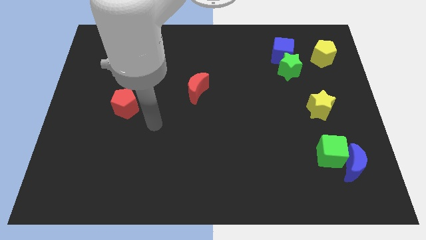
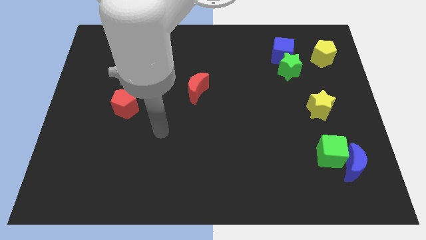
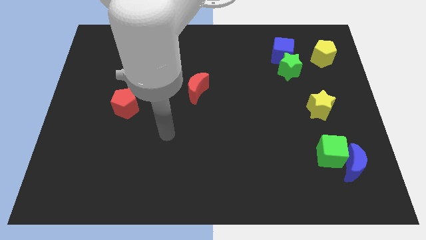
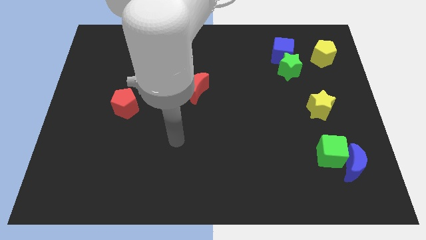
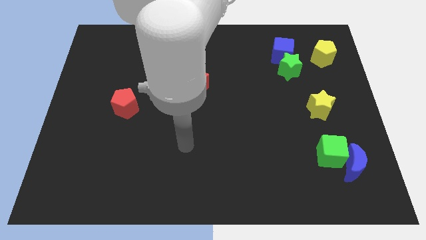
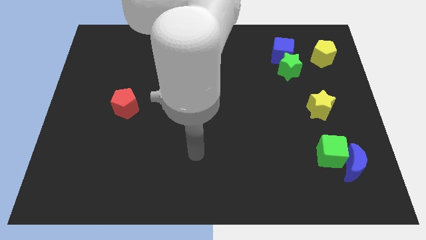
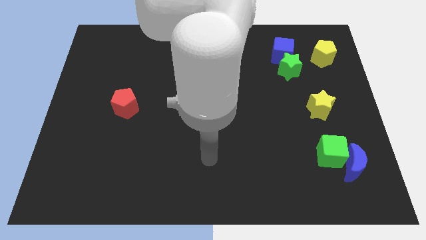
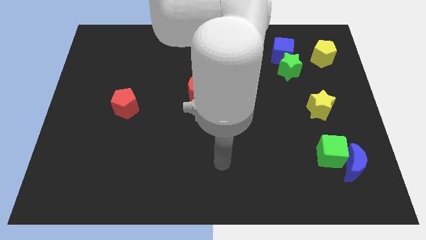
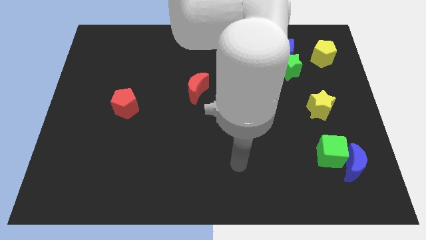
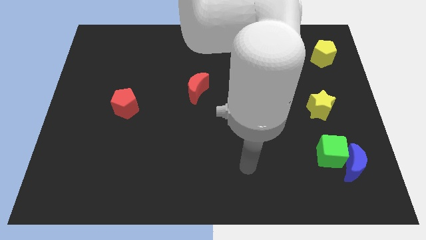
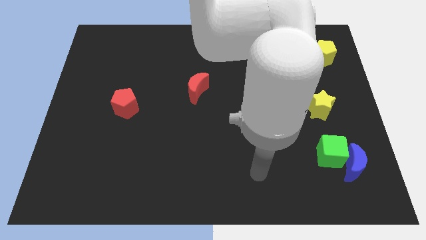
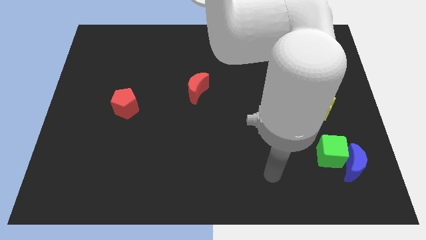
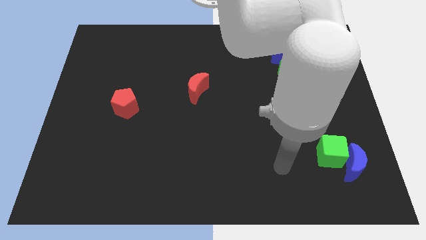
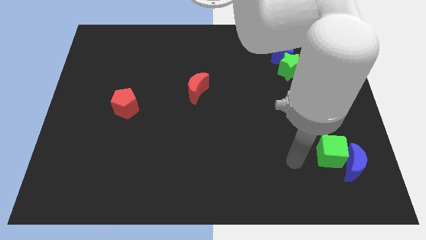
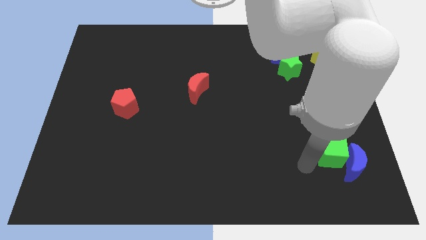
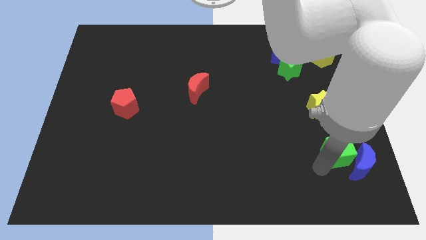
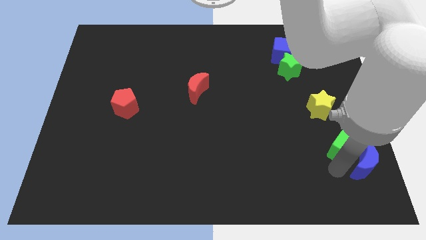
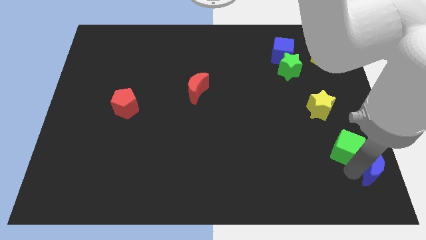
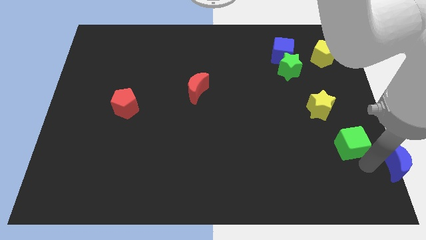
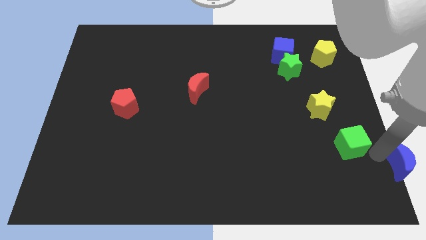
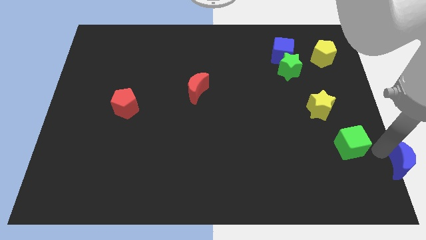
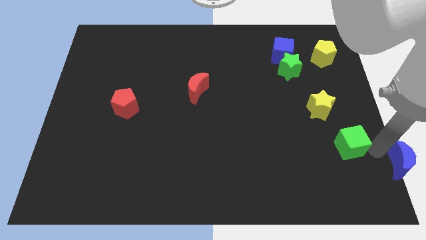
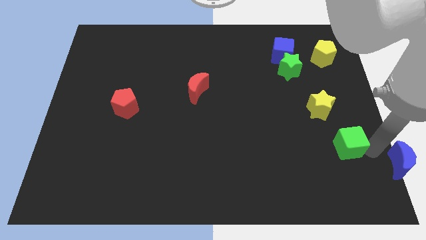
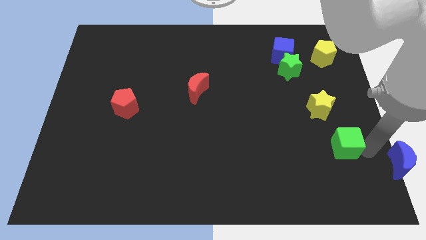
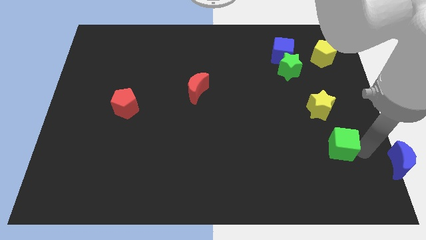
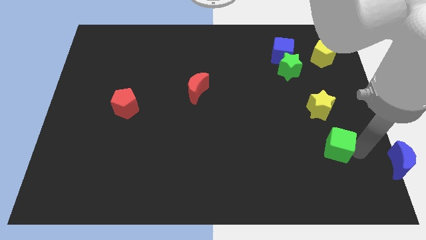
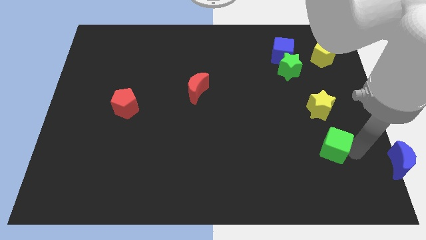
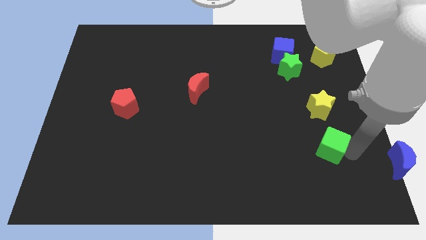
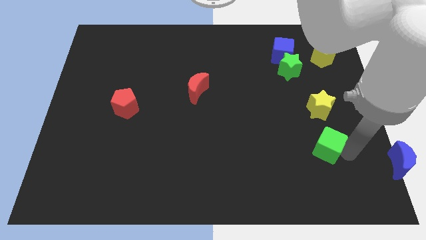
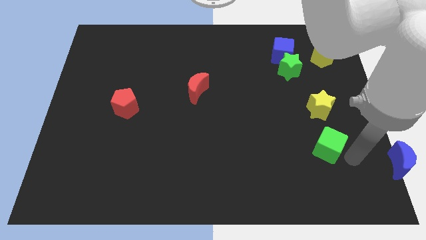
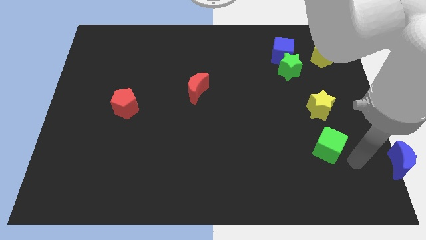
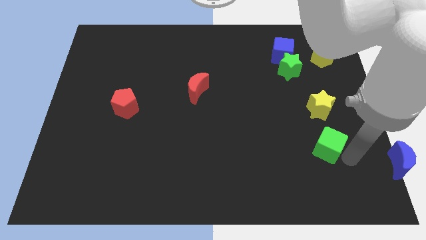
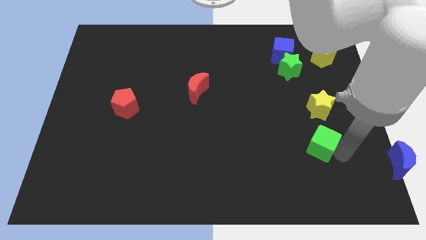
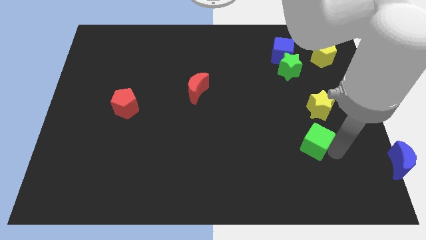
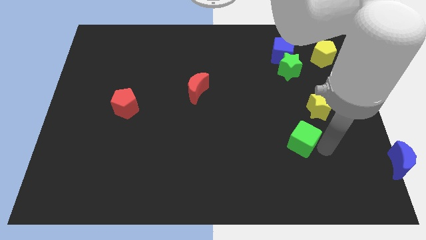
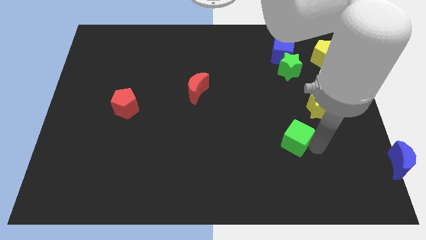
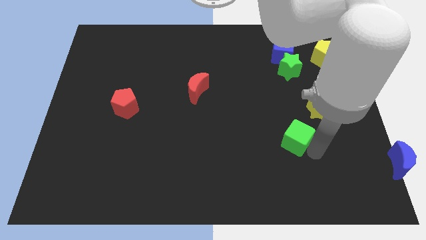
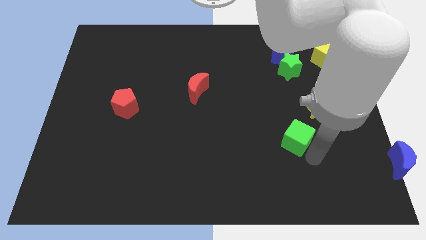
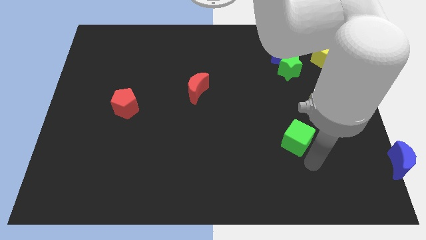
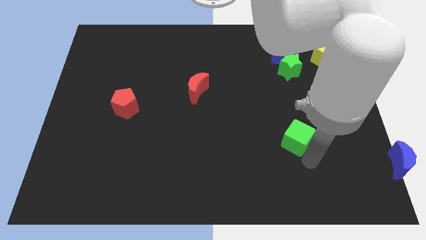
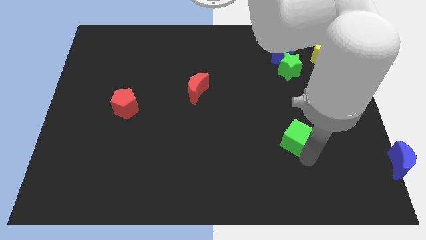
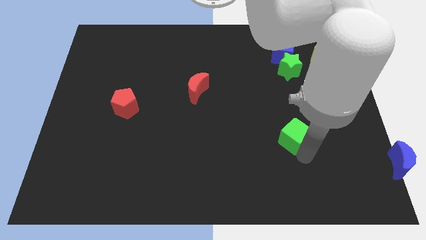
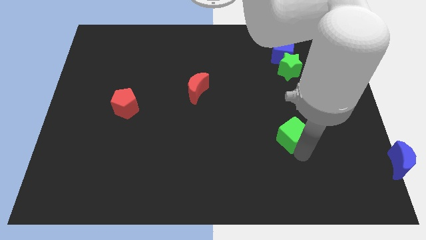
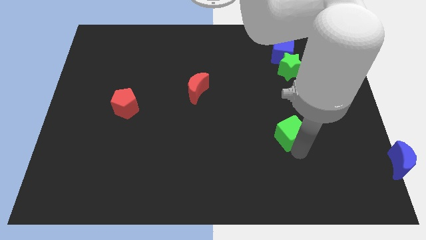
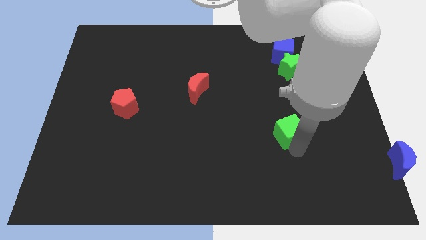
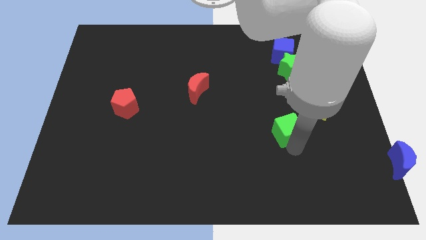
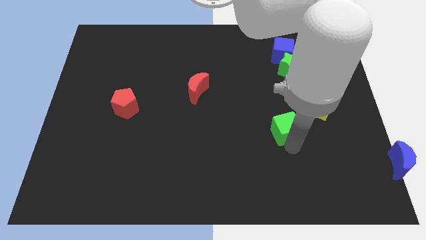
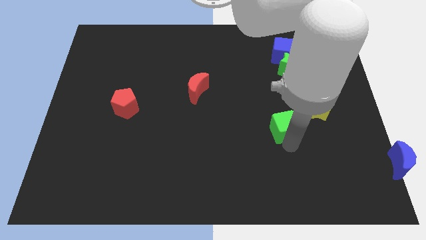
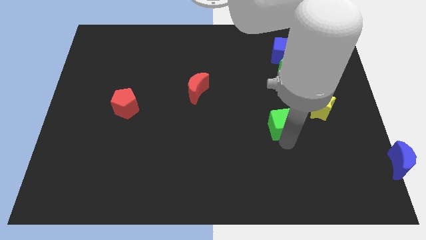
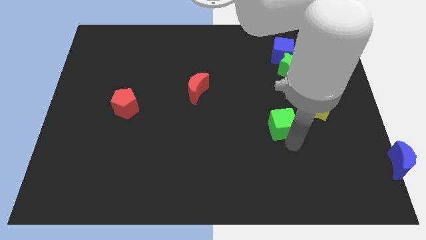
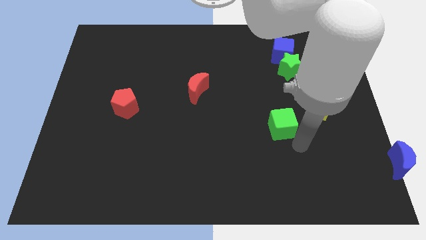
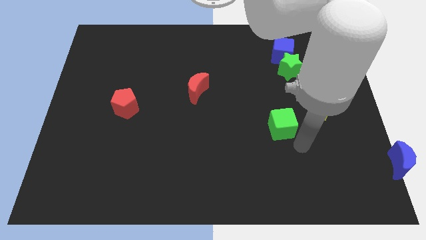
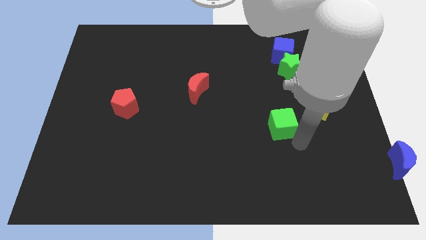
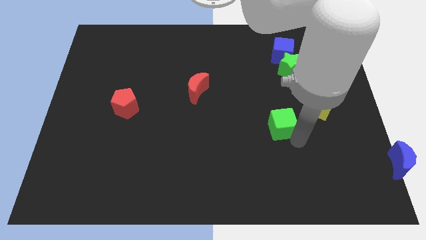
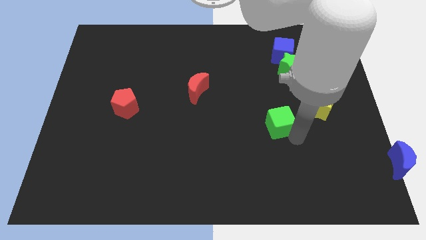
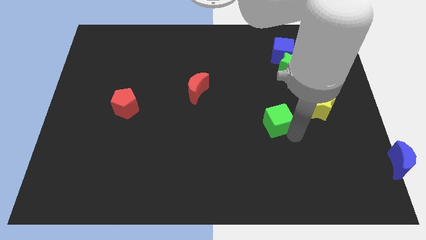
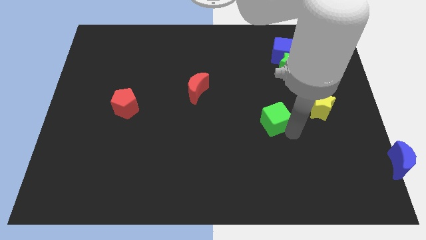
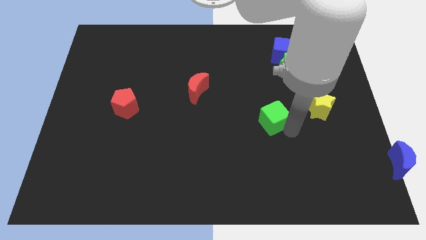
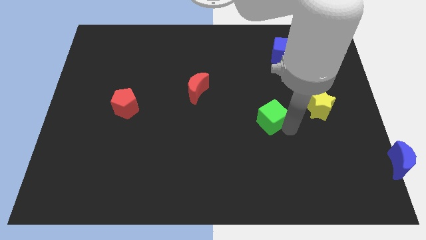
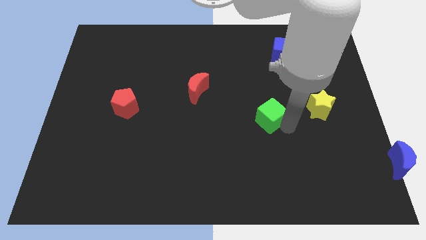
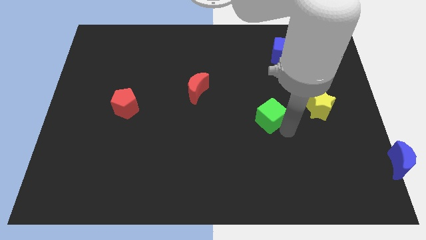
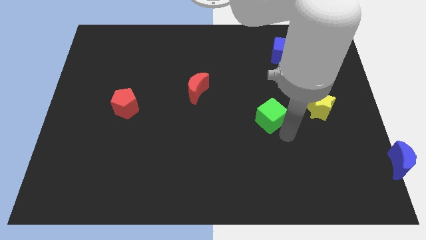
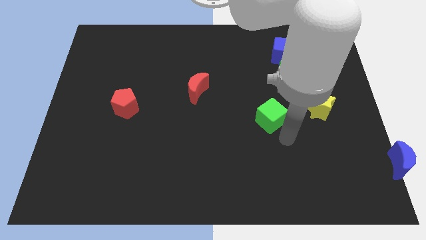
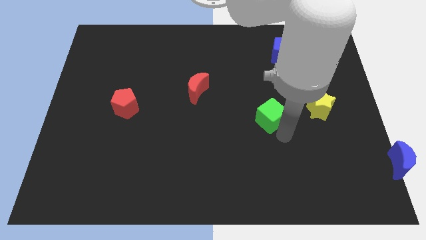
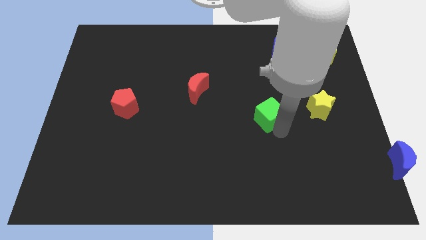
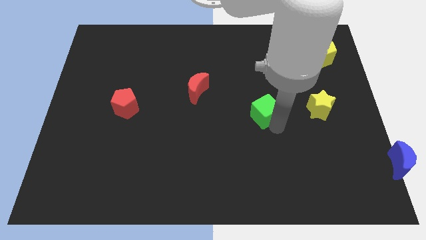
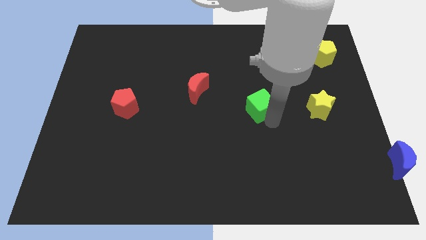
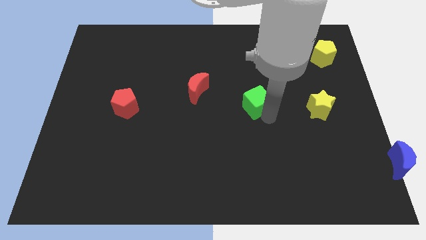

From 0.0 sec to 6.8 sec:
push the green cube up and to the left diagonally

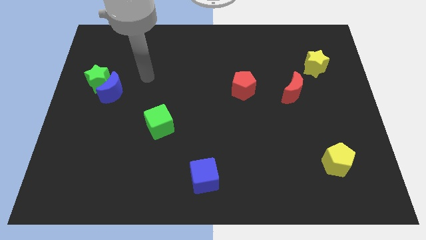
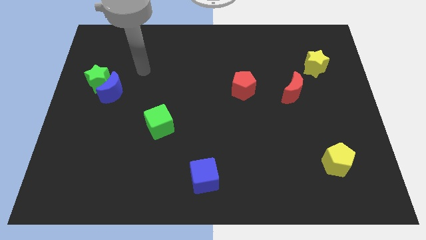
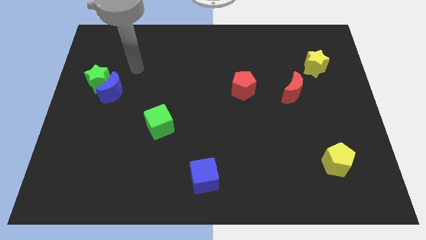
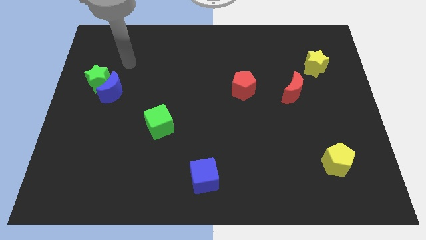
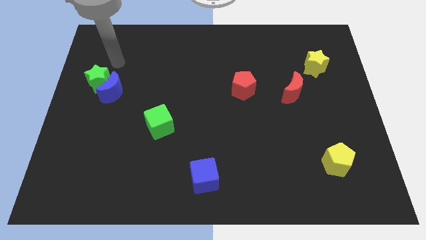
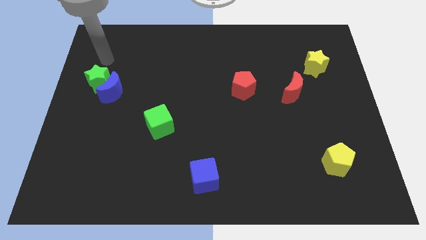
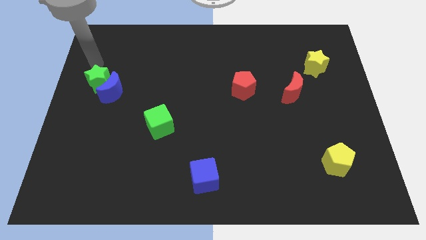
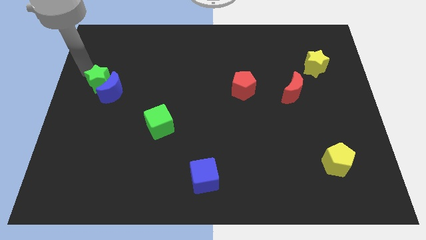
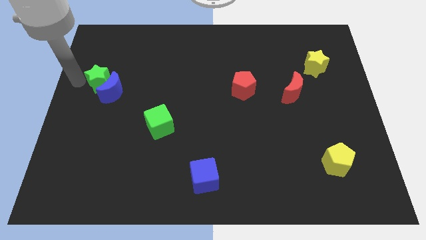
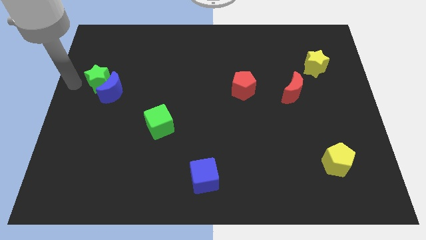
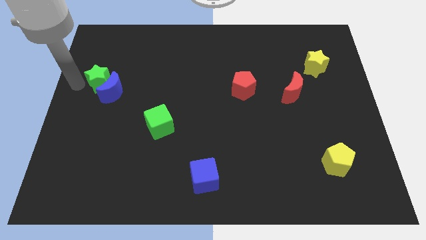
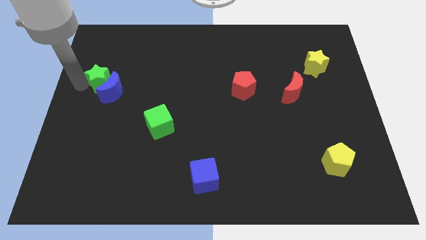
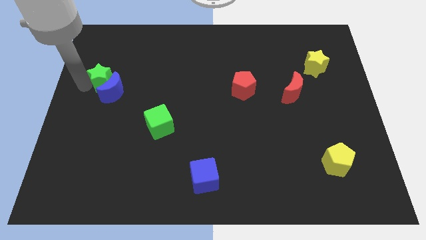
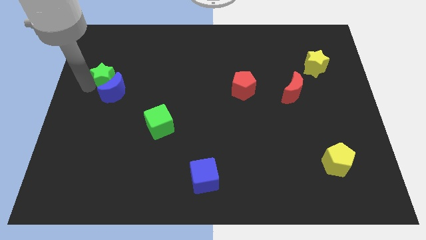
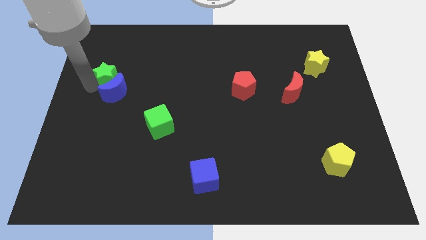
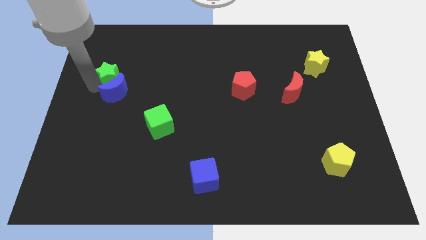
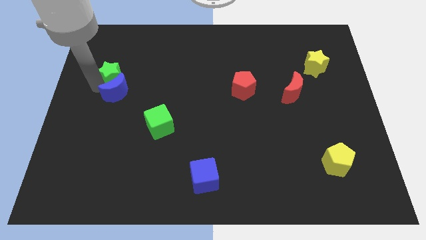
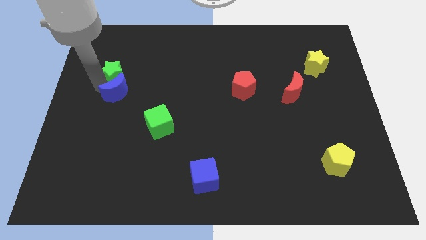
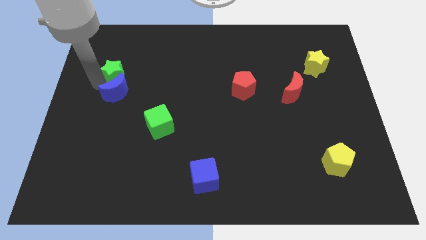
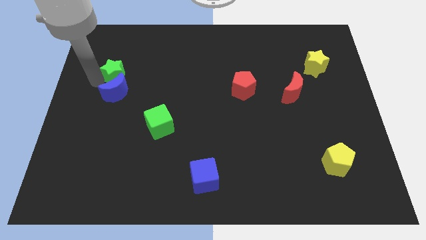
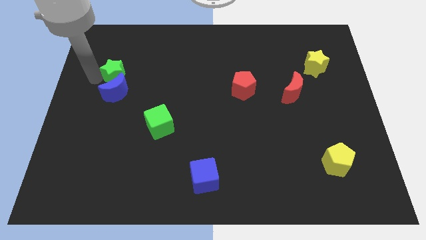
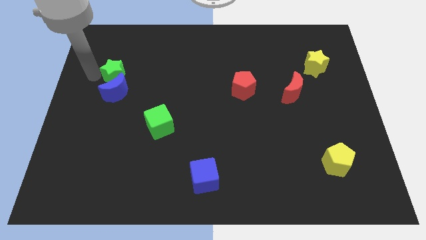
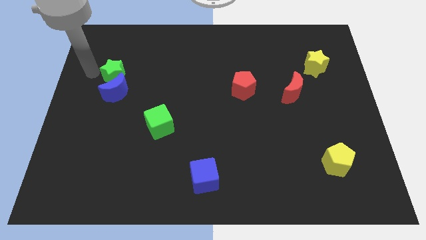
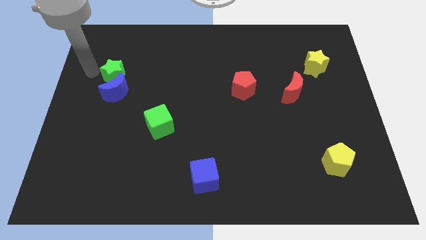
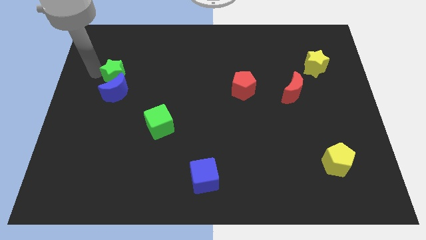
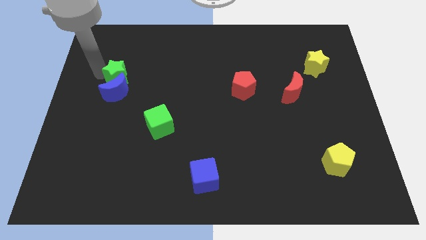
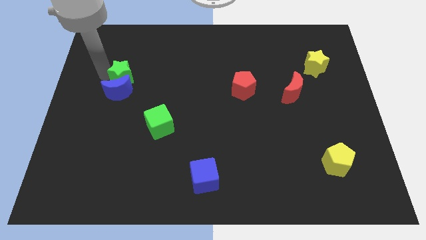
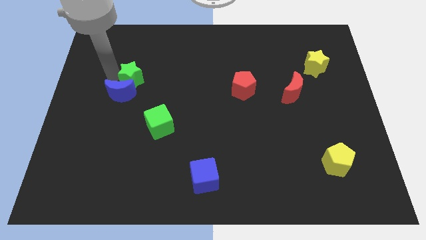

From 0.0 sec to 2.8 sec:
slightly push the green star right
